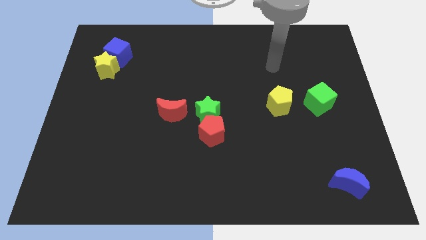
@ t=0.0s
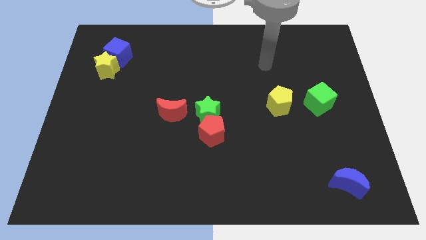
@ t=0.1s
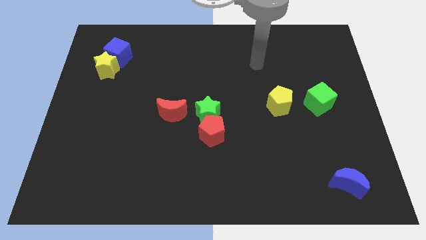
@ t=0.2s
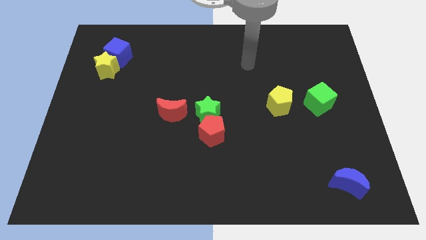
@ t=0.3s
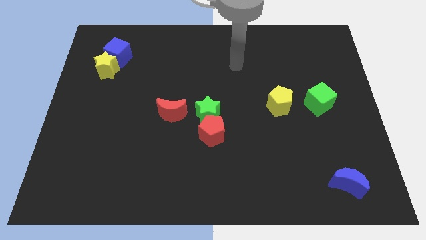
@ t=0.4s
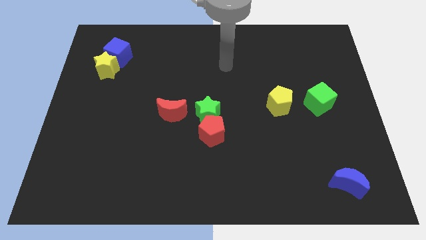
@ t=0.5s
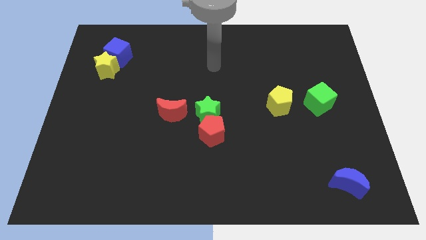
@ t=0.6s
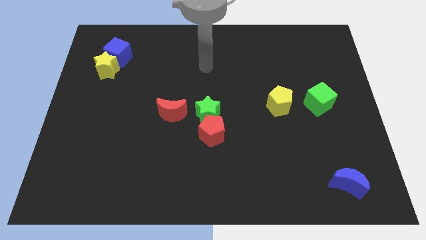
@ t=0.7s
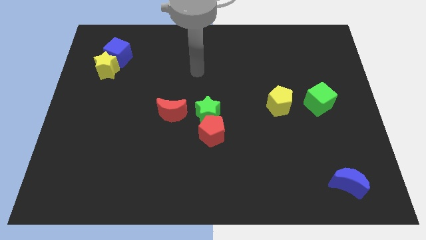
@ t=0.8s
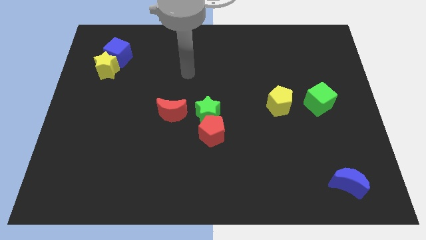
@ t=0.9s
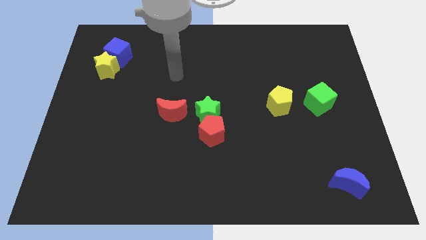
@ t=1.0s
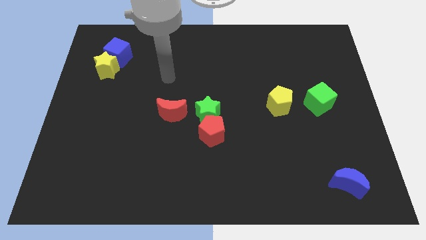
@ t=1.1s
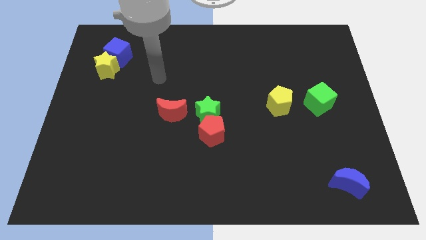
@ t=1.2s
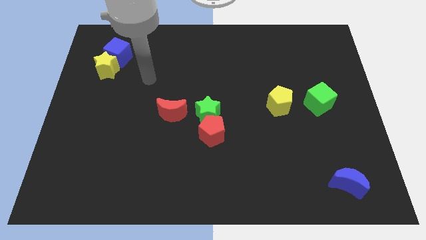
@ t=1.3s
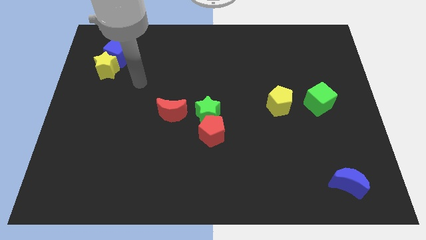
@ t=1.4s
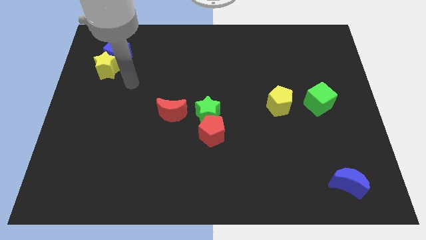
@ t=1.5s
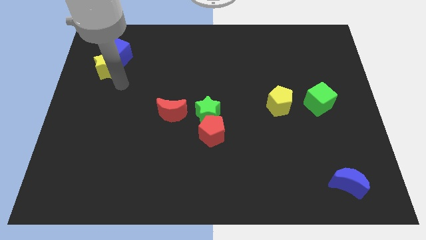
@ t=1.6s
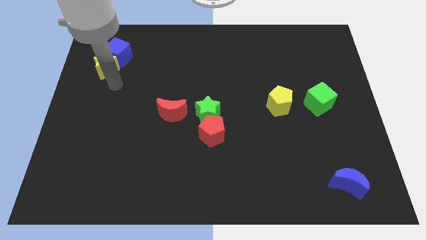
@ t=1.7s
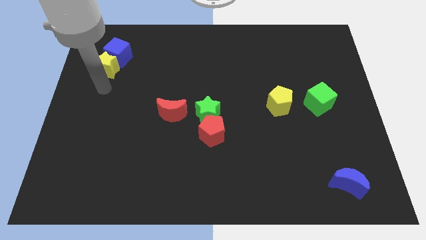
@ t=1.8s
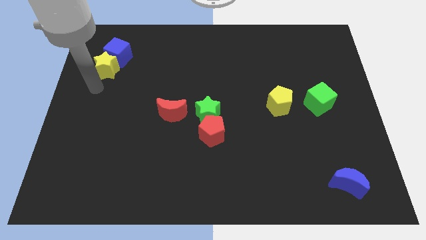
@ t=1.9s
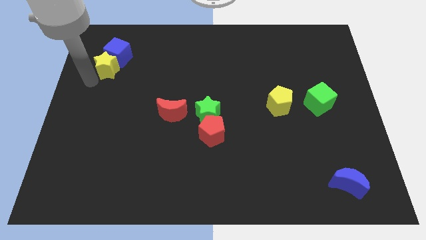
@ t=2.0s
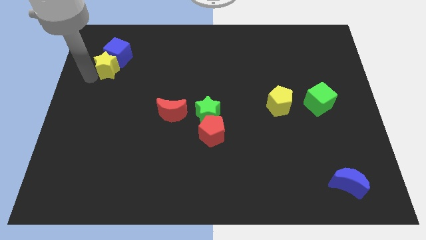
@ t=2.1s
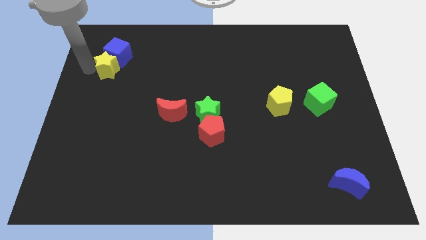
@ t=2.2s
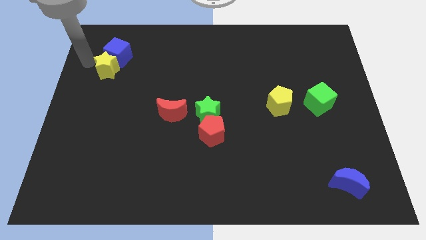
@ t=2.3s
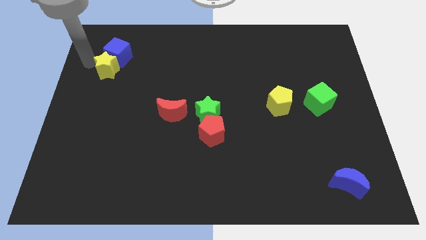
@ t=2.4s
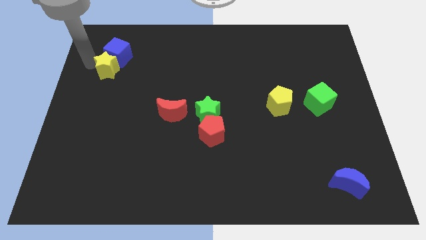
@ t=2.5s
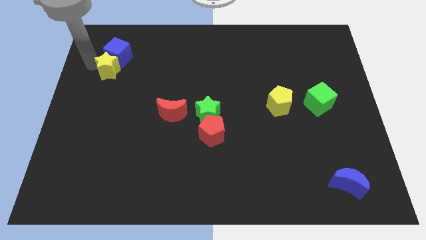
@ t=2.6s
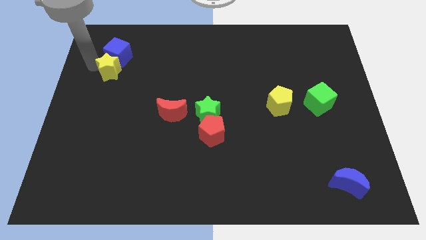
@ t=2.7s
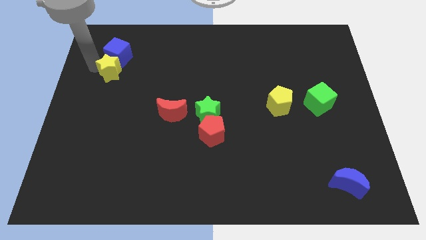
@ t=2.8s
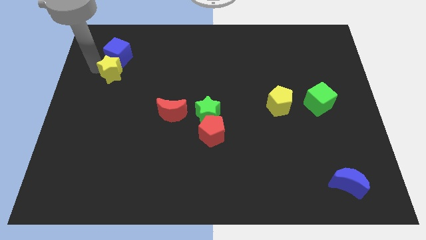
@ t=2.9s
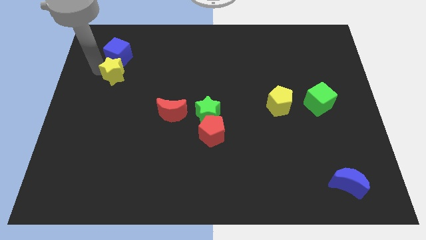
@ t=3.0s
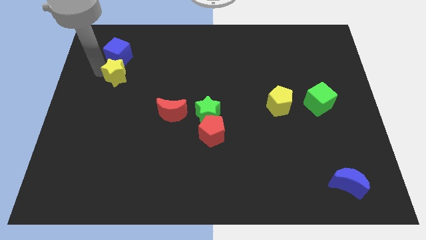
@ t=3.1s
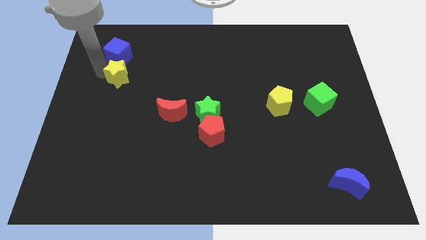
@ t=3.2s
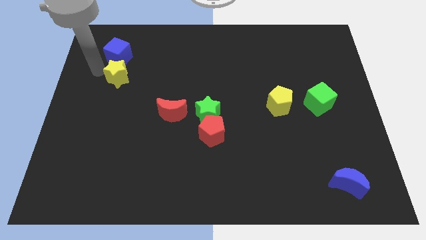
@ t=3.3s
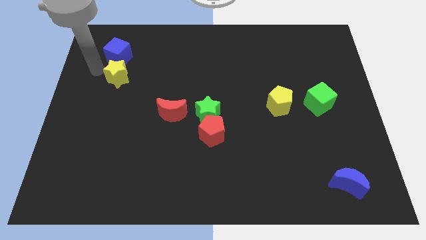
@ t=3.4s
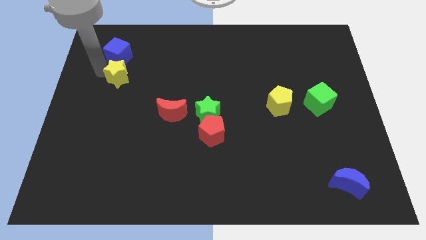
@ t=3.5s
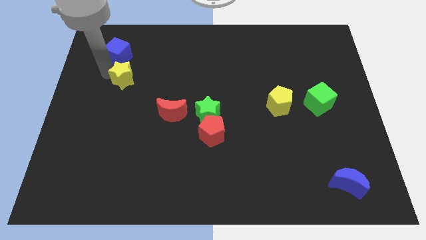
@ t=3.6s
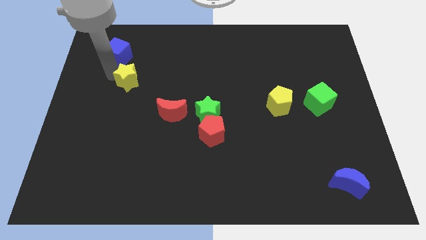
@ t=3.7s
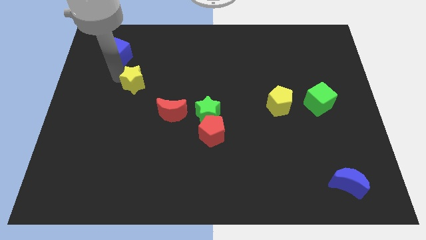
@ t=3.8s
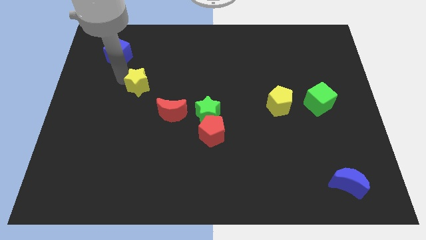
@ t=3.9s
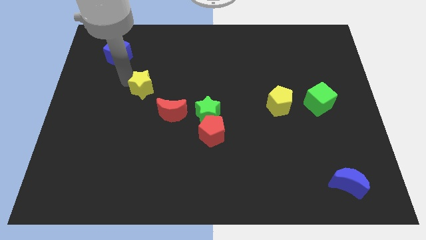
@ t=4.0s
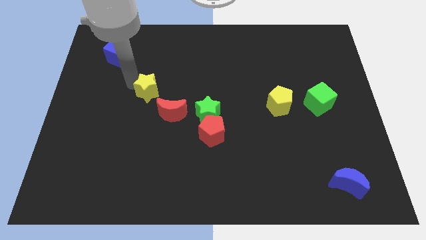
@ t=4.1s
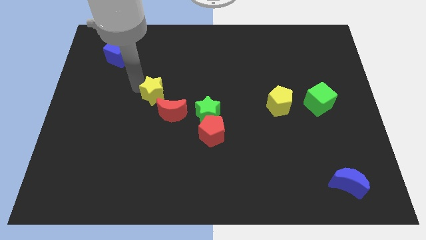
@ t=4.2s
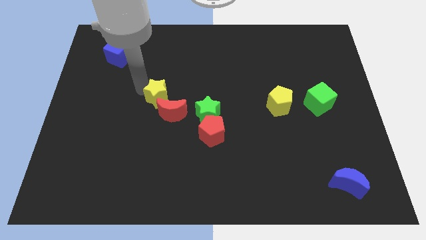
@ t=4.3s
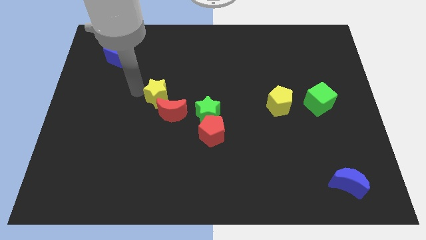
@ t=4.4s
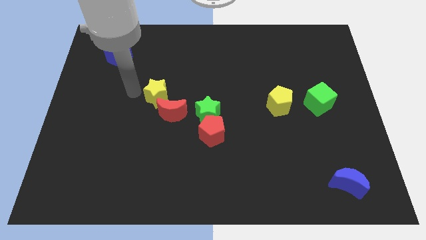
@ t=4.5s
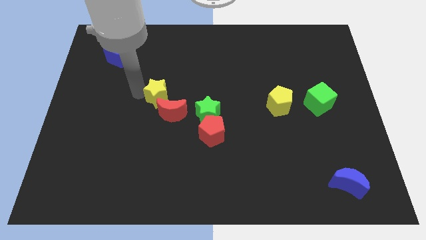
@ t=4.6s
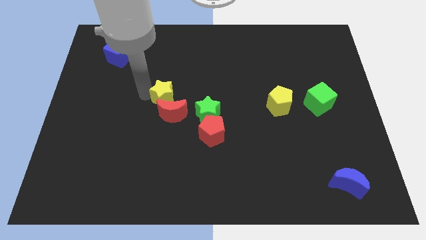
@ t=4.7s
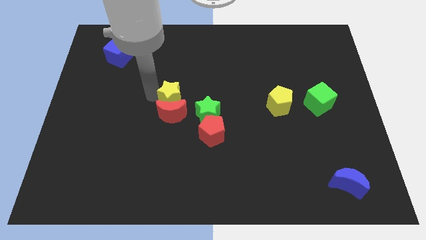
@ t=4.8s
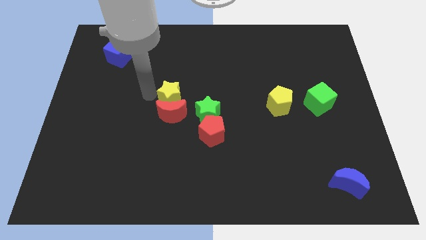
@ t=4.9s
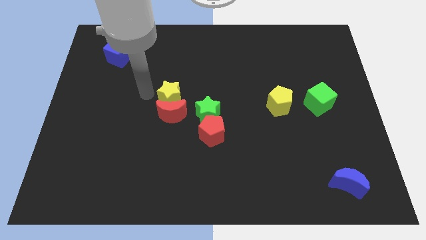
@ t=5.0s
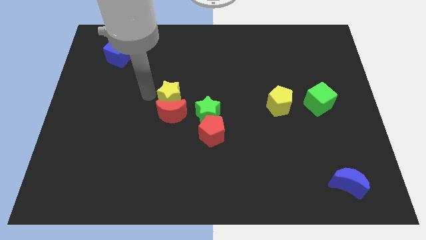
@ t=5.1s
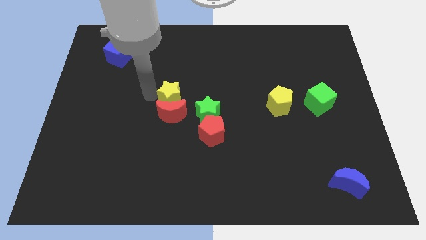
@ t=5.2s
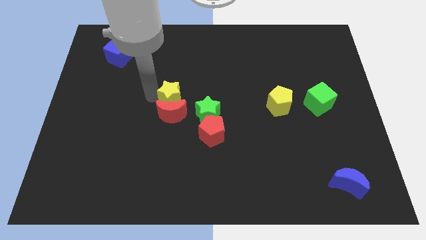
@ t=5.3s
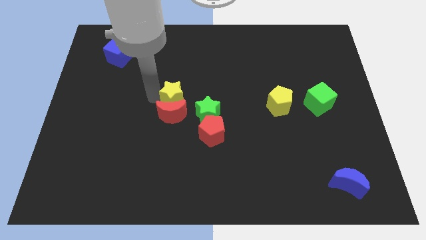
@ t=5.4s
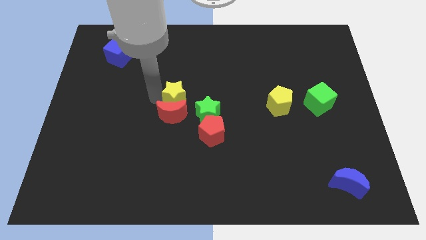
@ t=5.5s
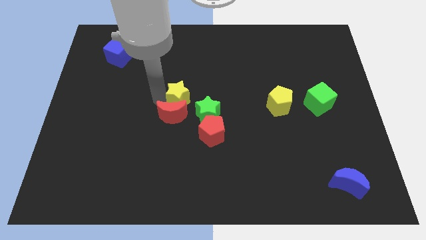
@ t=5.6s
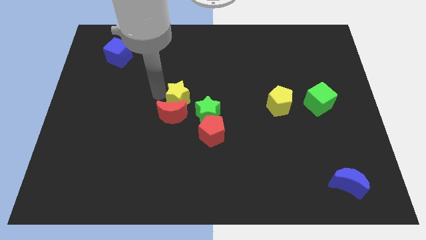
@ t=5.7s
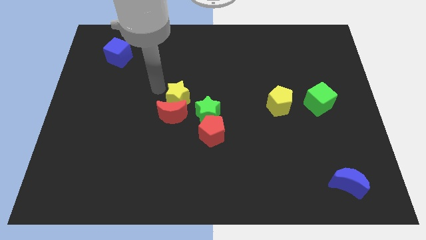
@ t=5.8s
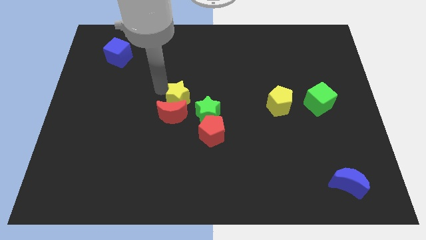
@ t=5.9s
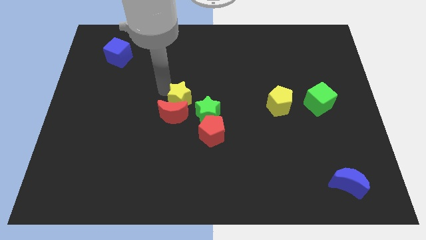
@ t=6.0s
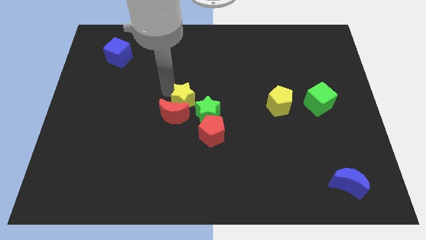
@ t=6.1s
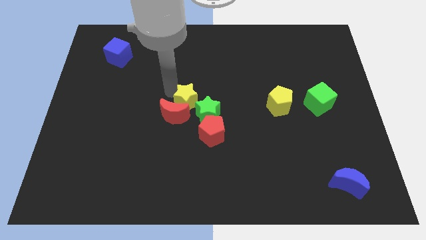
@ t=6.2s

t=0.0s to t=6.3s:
slide the yellow star towards the green star
